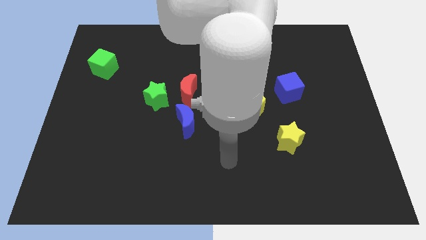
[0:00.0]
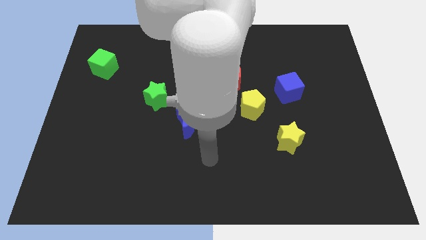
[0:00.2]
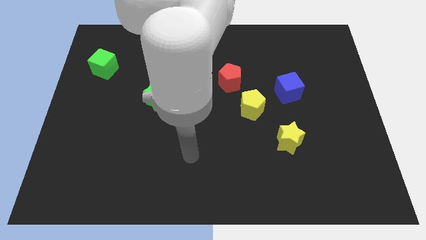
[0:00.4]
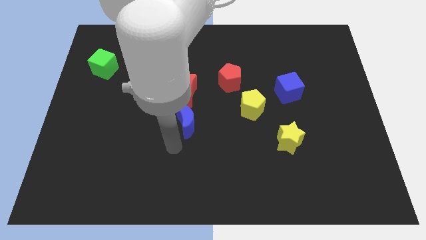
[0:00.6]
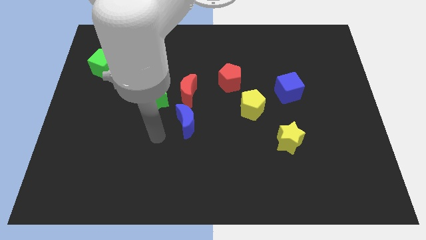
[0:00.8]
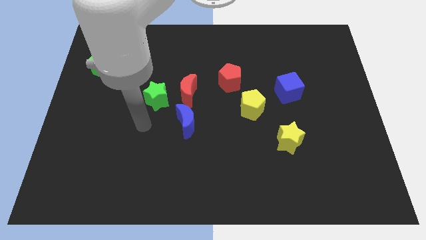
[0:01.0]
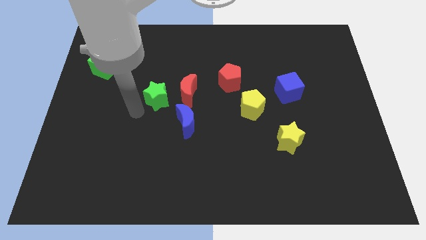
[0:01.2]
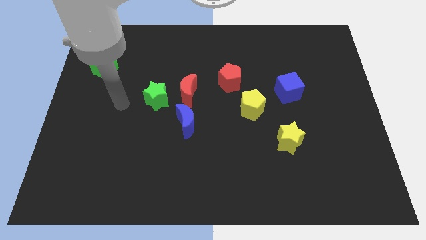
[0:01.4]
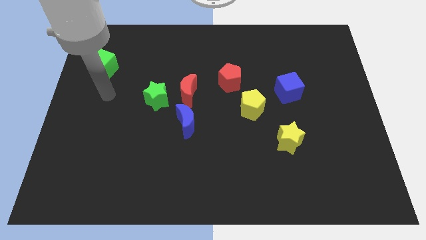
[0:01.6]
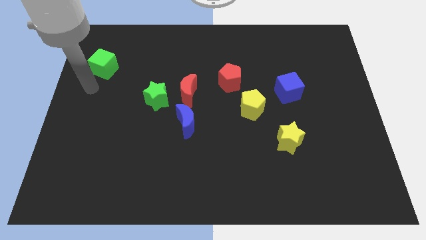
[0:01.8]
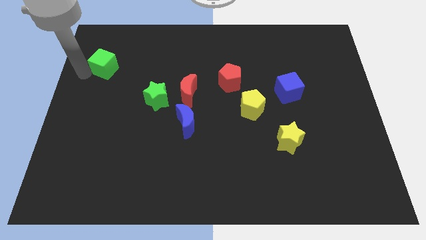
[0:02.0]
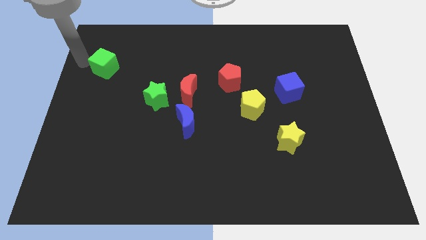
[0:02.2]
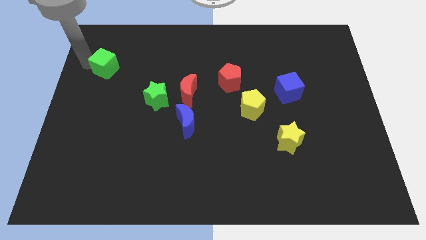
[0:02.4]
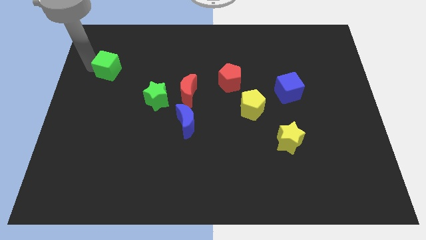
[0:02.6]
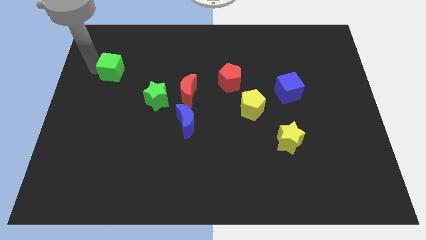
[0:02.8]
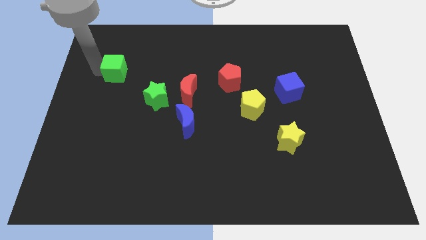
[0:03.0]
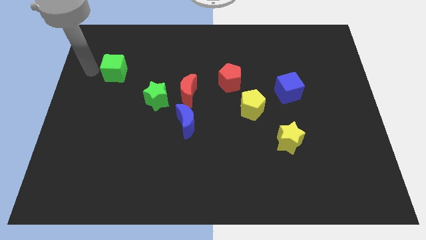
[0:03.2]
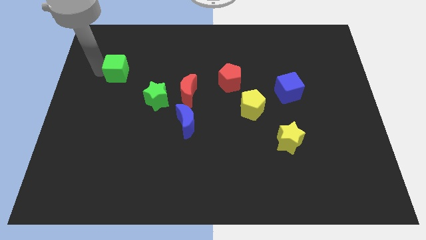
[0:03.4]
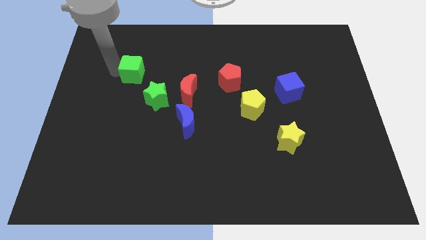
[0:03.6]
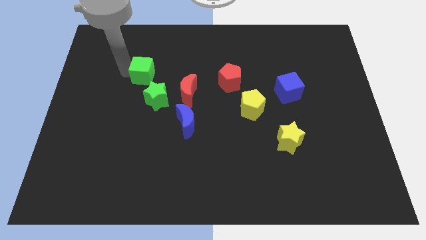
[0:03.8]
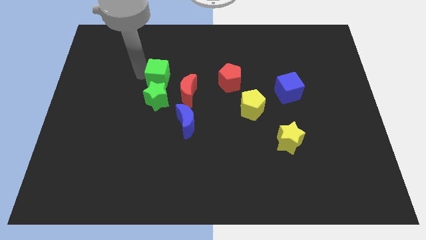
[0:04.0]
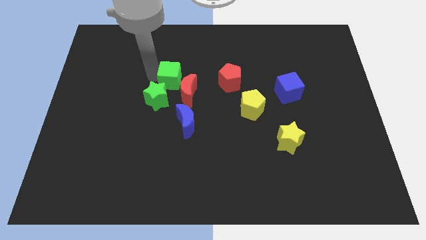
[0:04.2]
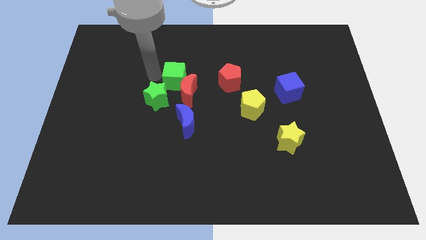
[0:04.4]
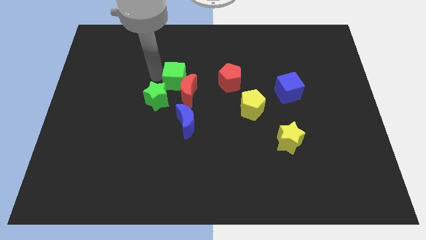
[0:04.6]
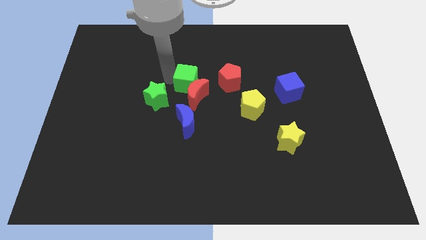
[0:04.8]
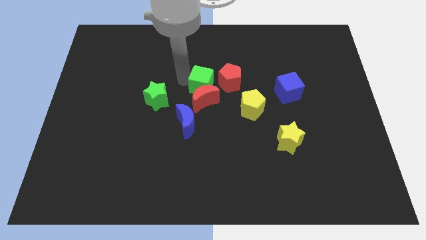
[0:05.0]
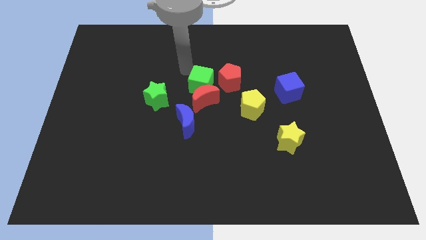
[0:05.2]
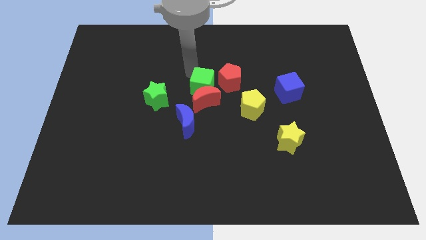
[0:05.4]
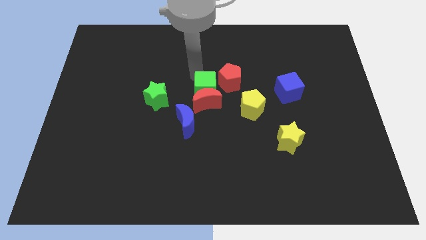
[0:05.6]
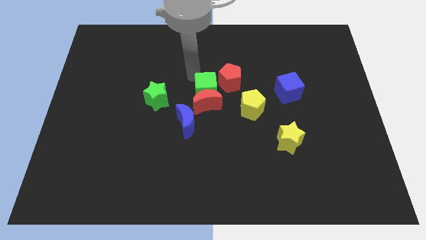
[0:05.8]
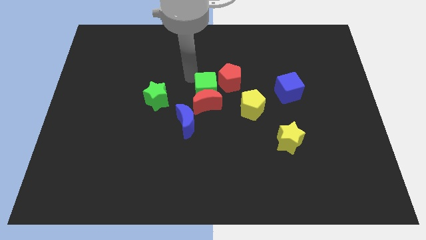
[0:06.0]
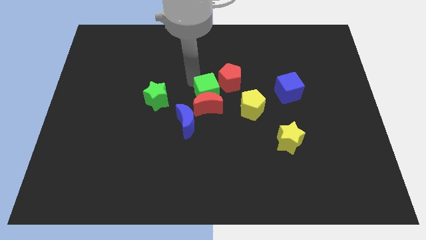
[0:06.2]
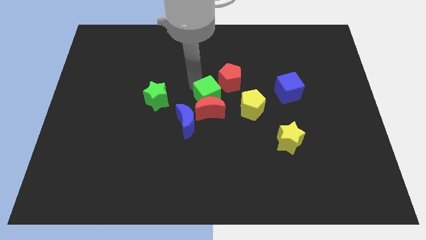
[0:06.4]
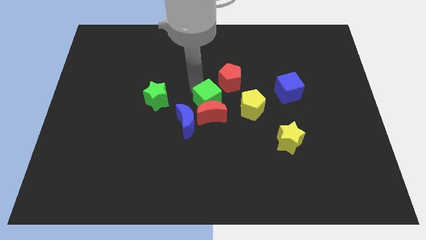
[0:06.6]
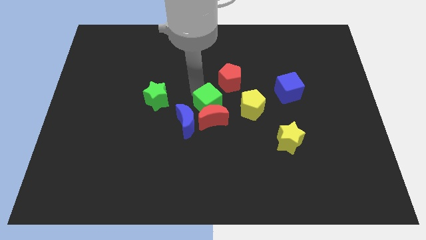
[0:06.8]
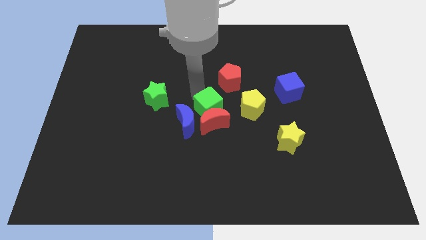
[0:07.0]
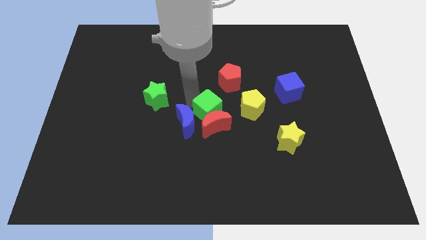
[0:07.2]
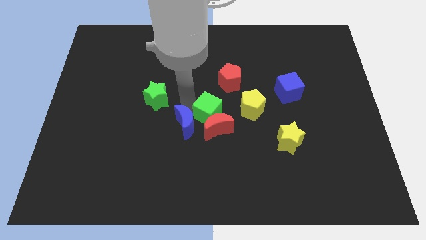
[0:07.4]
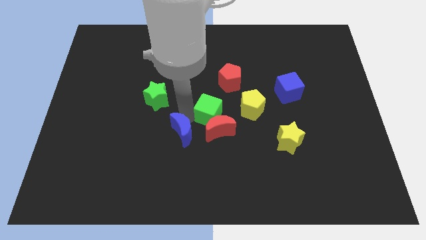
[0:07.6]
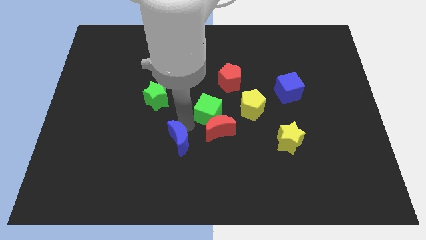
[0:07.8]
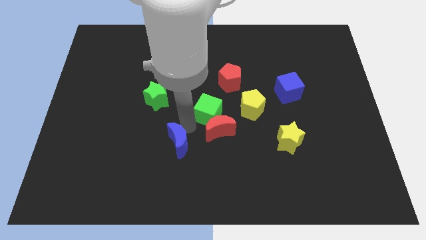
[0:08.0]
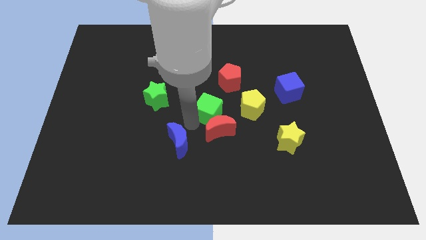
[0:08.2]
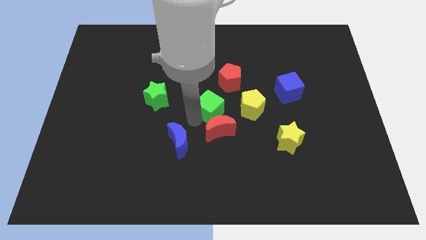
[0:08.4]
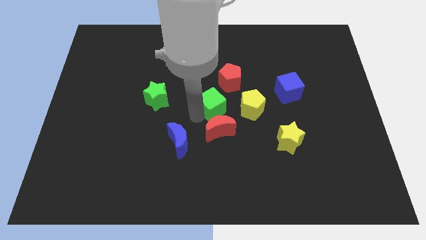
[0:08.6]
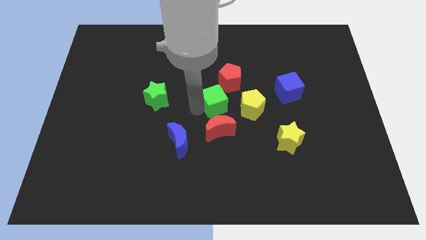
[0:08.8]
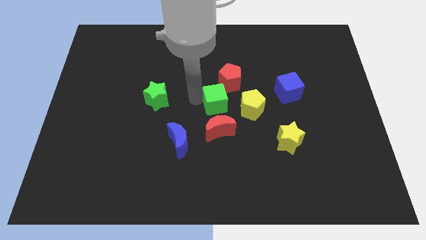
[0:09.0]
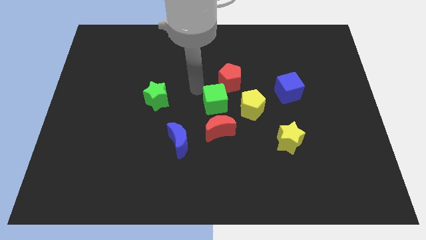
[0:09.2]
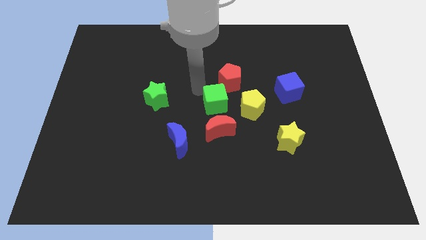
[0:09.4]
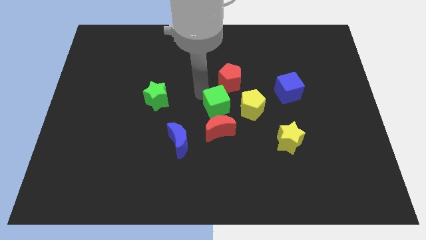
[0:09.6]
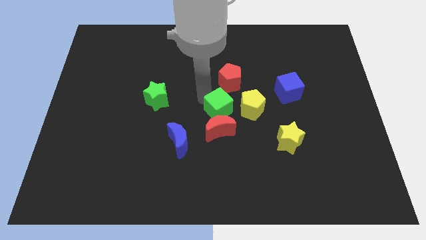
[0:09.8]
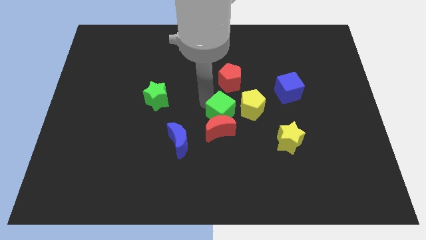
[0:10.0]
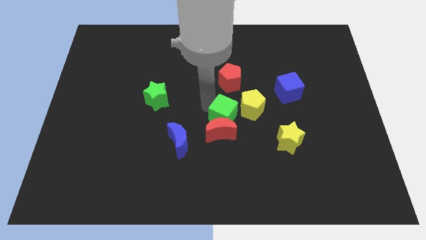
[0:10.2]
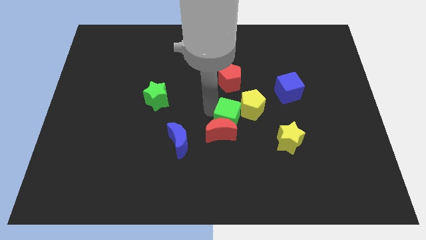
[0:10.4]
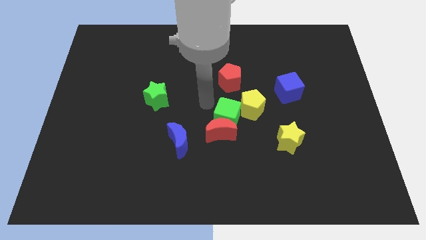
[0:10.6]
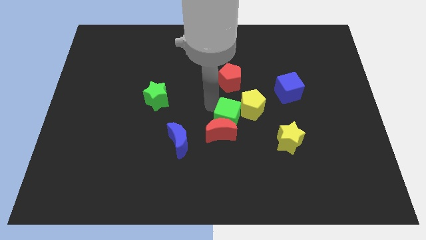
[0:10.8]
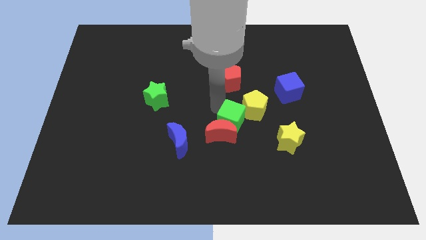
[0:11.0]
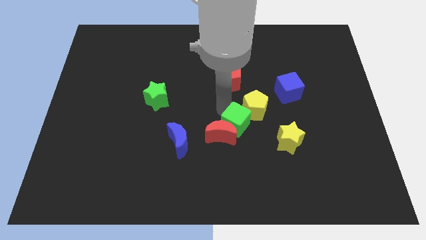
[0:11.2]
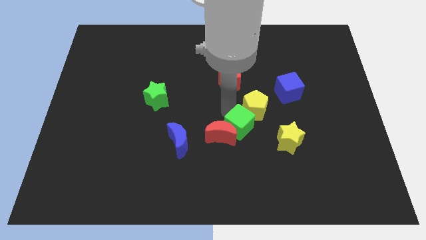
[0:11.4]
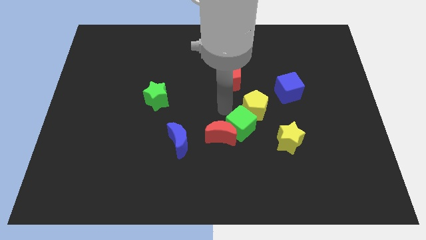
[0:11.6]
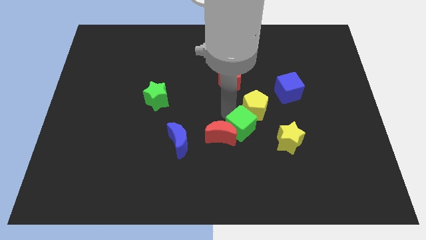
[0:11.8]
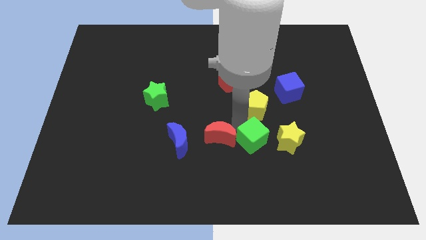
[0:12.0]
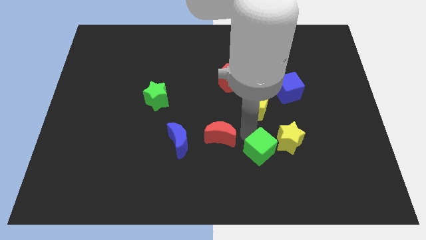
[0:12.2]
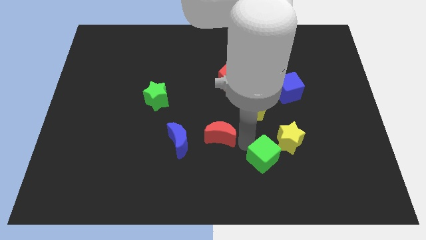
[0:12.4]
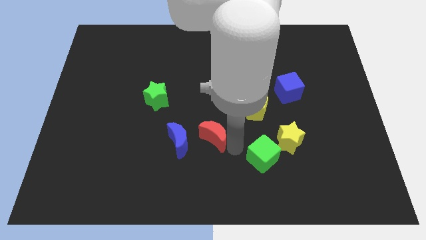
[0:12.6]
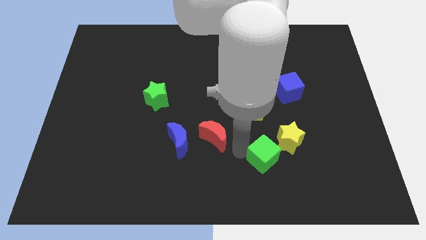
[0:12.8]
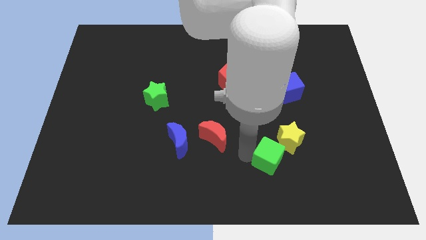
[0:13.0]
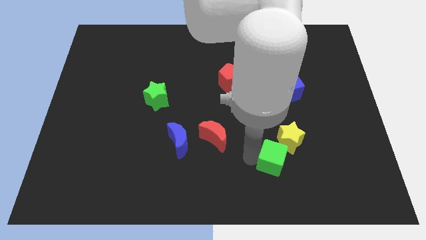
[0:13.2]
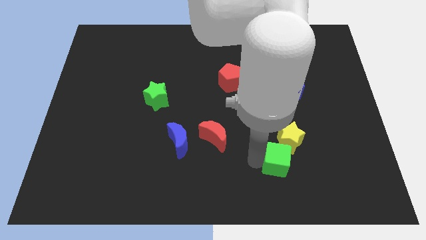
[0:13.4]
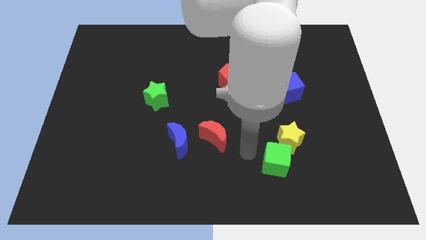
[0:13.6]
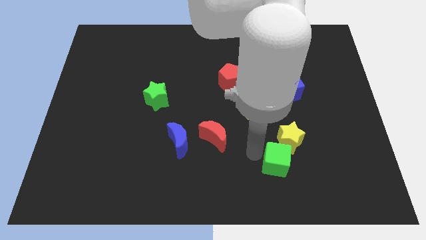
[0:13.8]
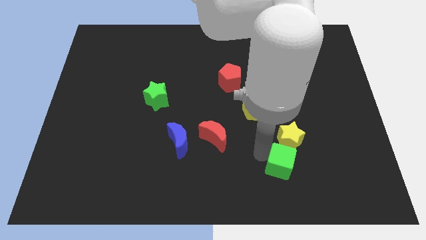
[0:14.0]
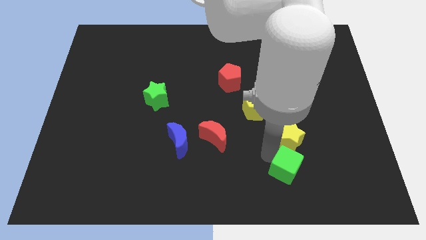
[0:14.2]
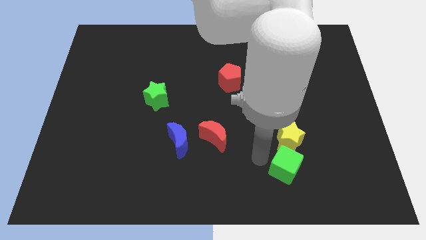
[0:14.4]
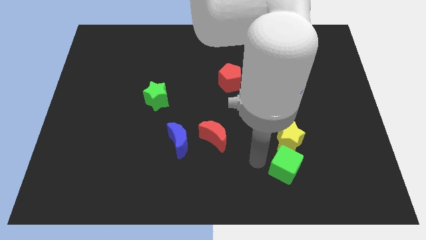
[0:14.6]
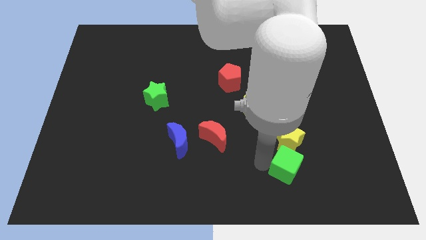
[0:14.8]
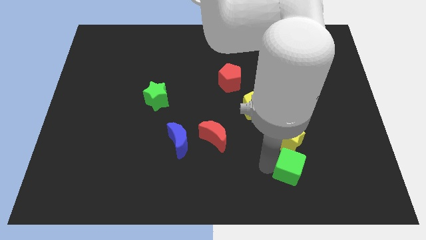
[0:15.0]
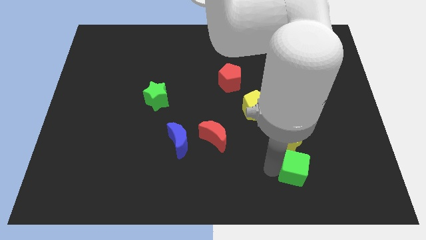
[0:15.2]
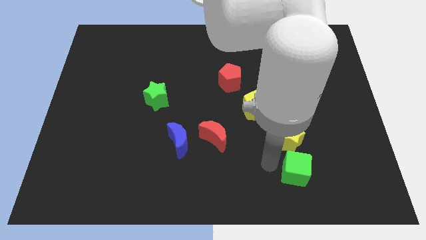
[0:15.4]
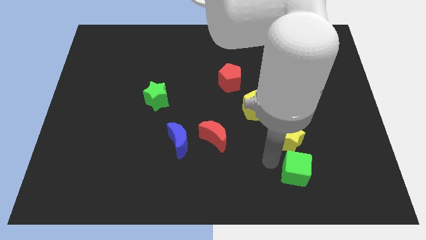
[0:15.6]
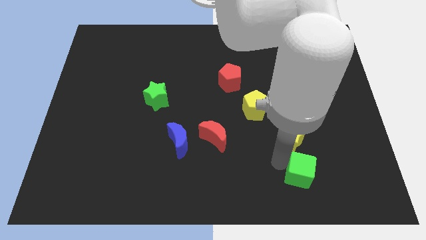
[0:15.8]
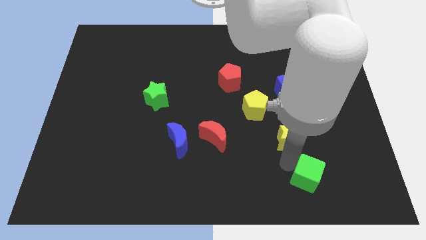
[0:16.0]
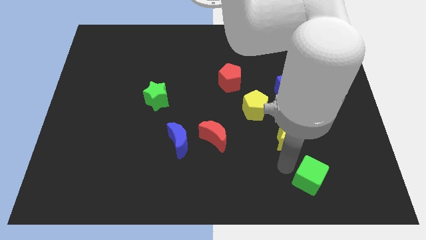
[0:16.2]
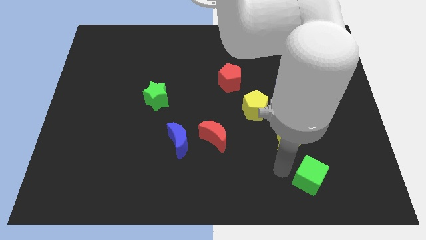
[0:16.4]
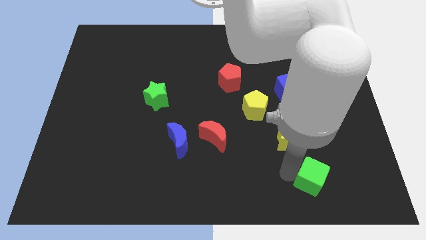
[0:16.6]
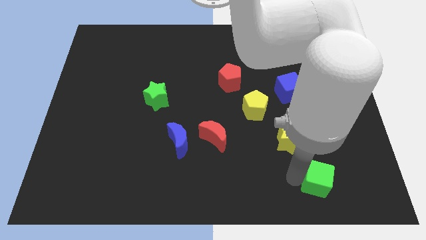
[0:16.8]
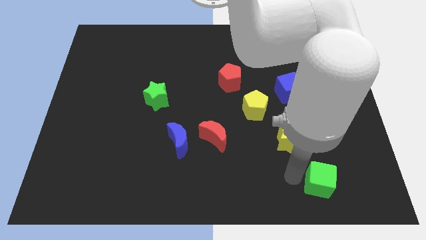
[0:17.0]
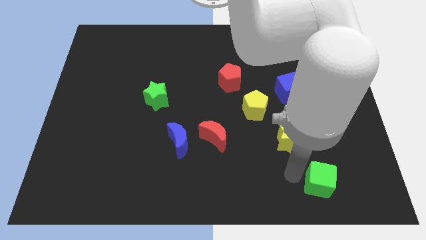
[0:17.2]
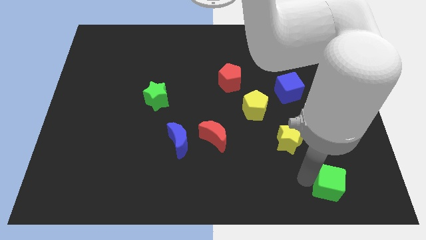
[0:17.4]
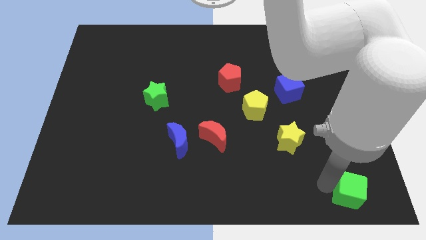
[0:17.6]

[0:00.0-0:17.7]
push the green cube to the bottom right corner
